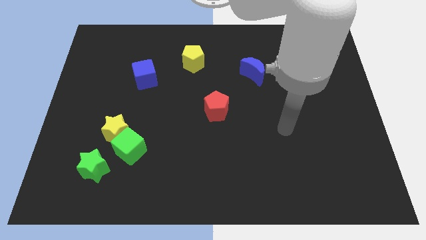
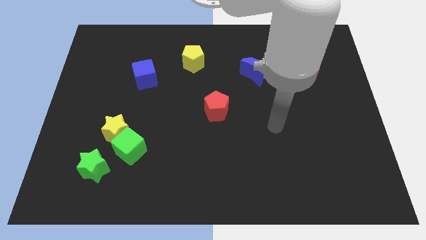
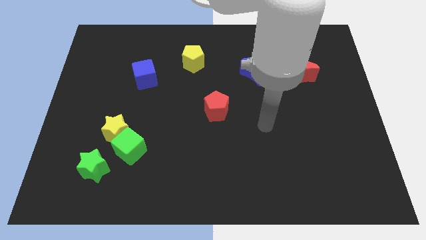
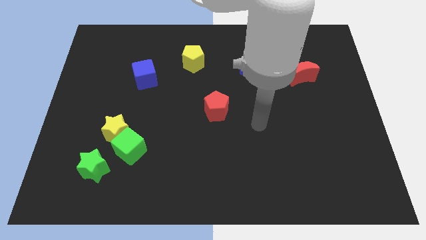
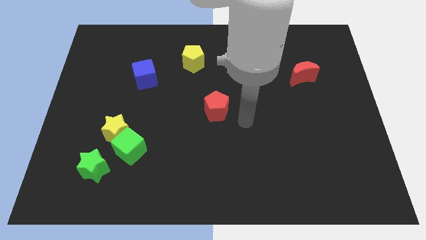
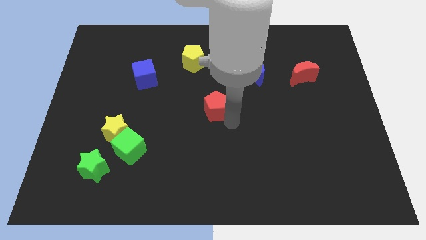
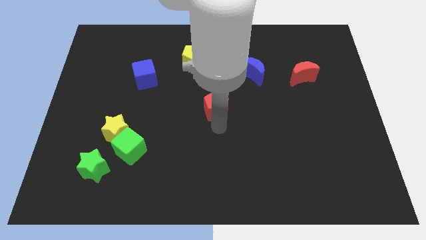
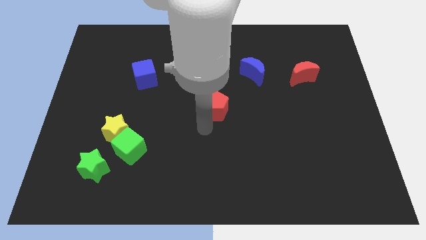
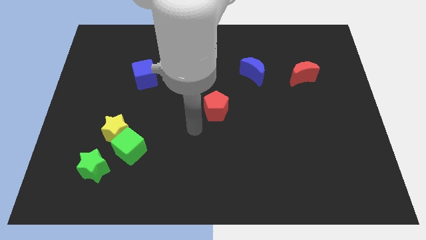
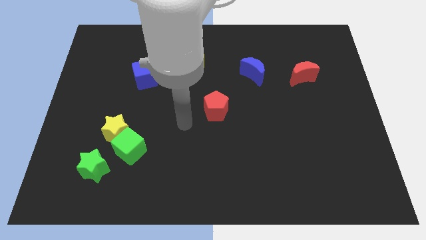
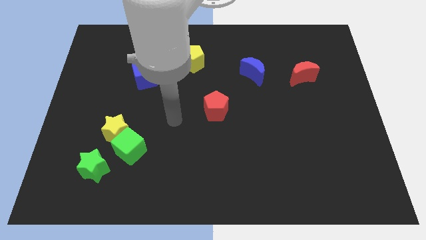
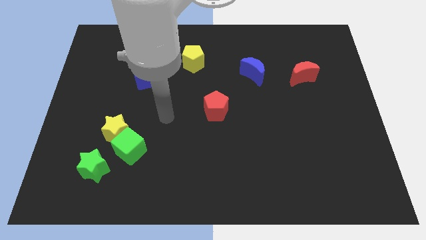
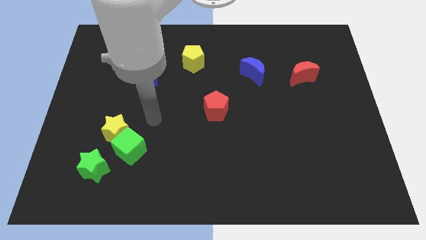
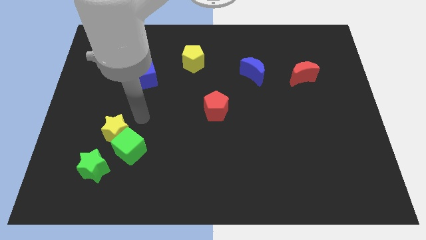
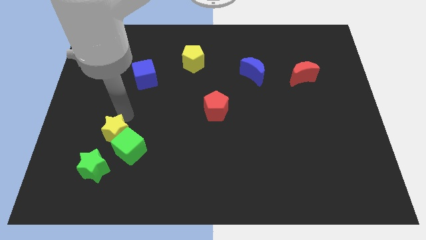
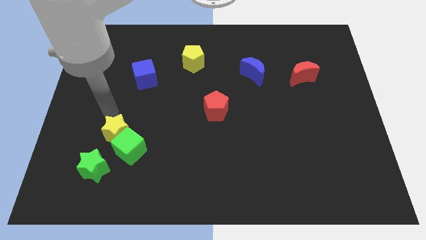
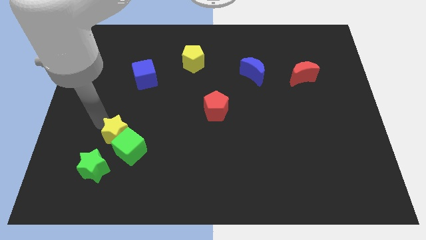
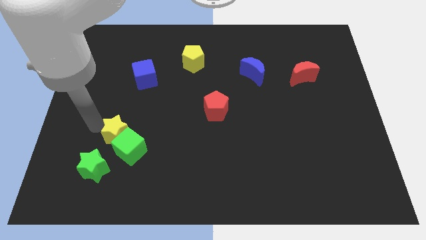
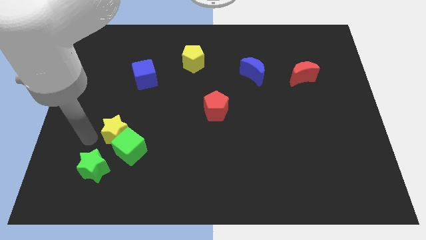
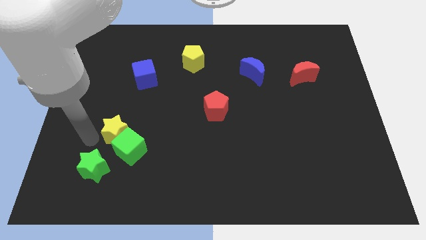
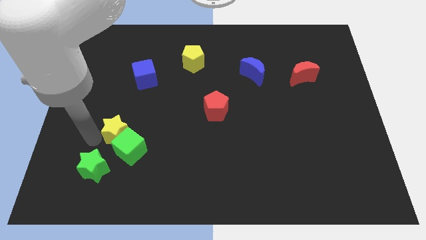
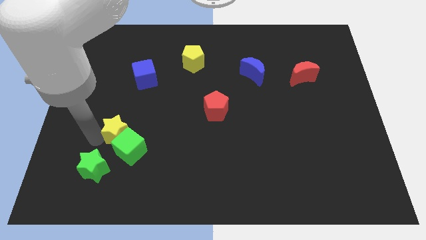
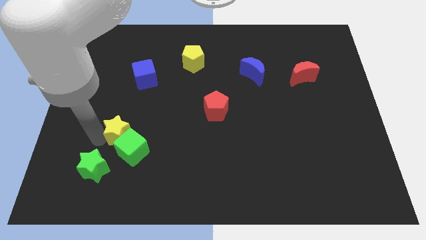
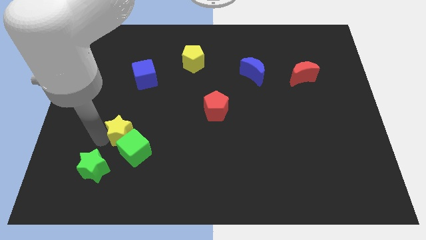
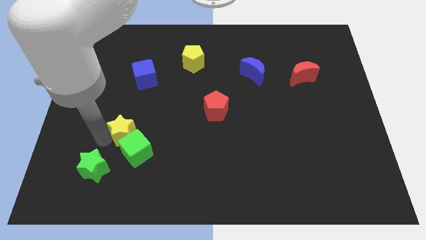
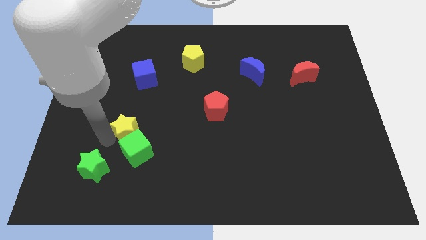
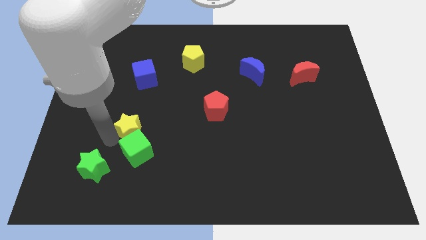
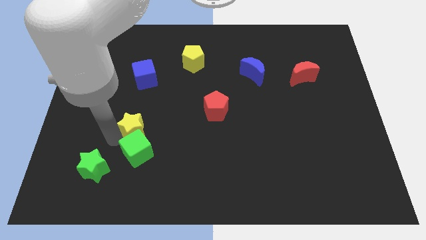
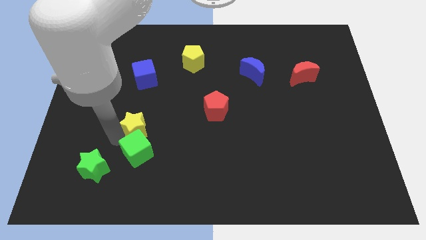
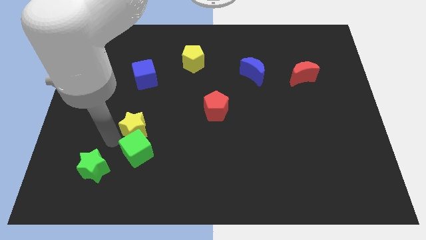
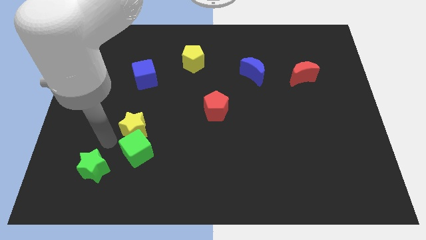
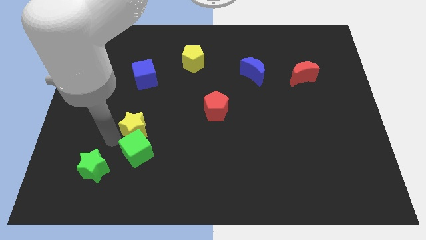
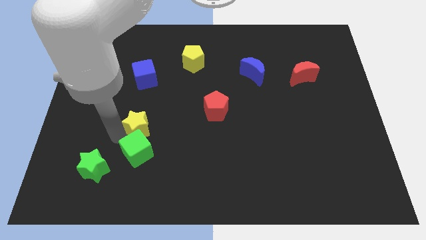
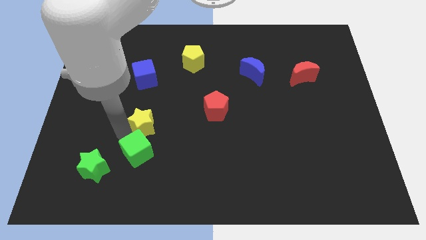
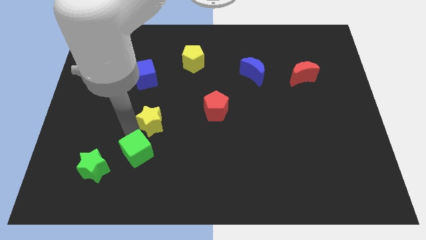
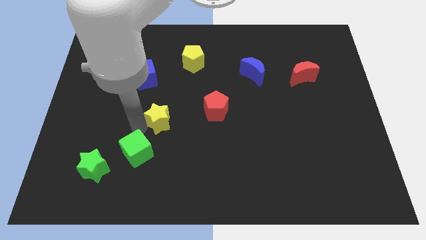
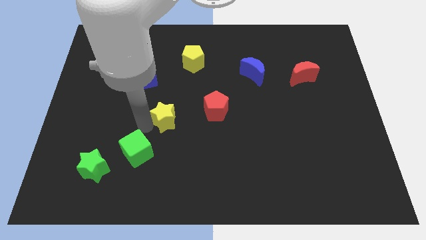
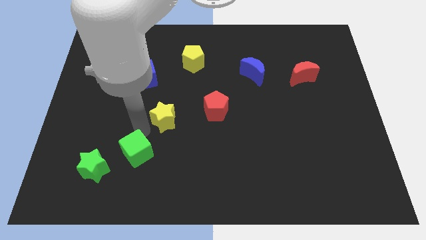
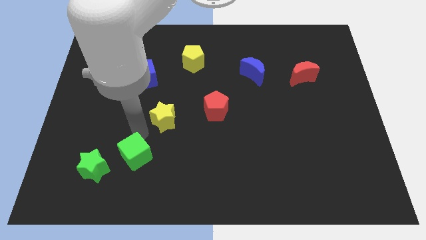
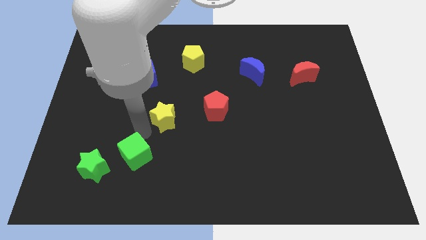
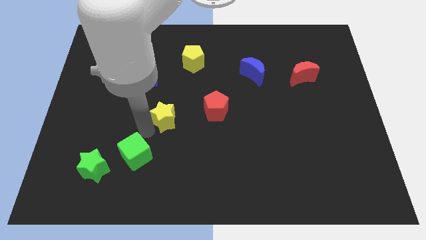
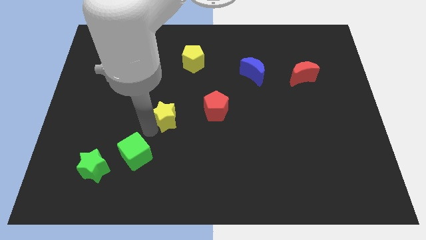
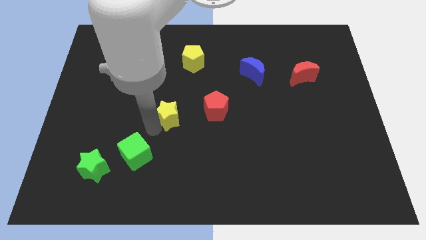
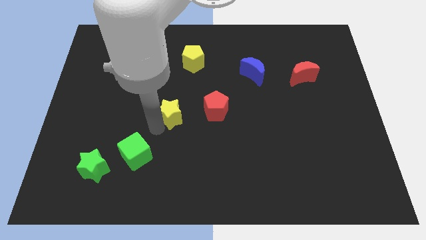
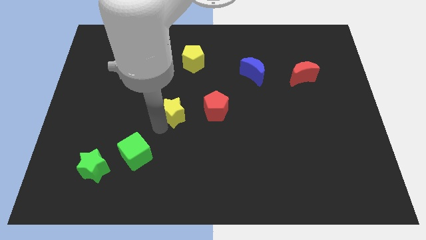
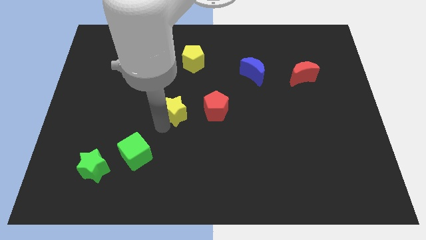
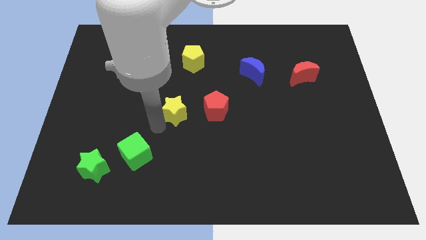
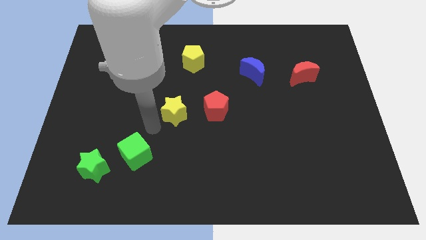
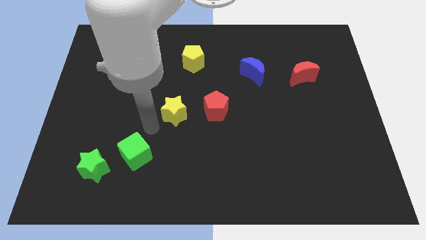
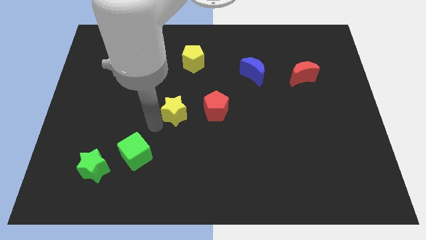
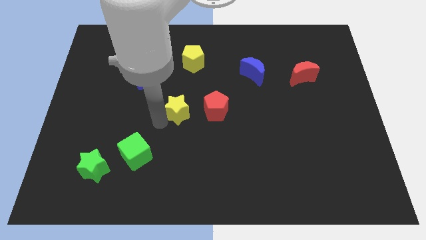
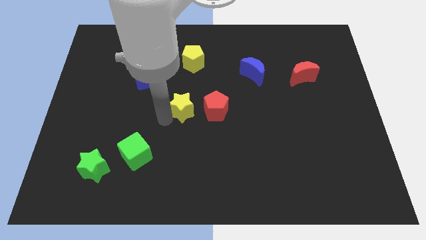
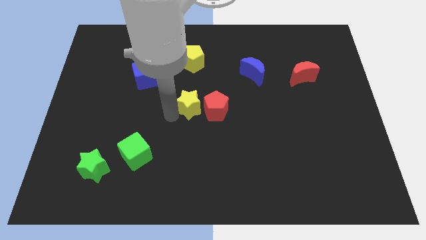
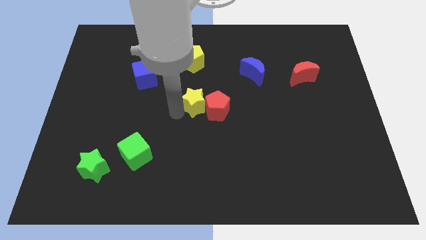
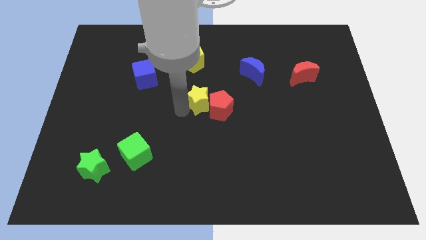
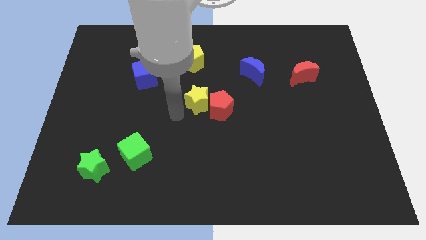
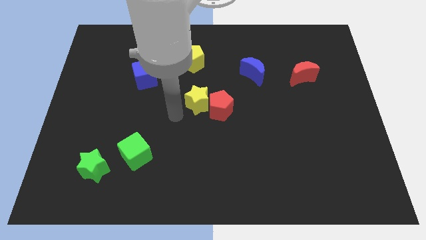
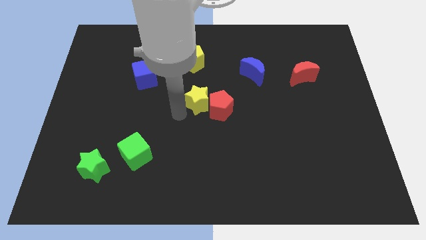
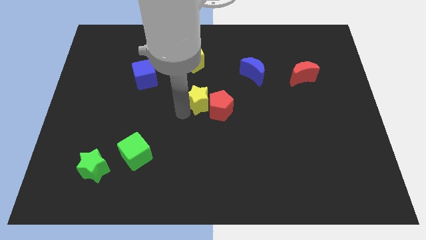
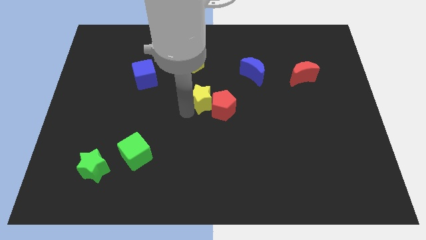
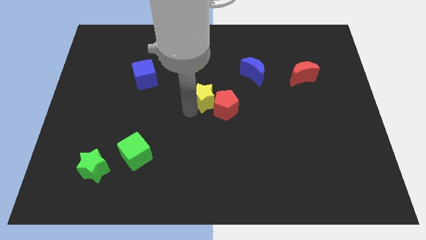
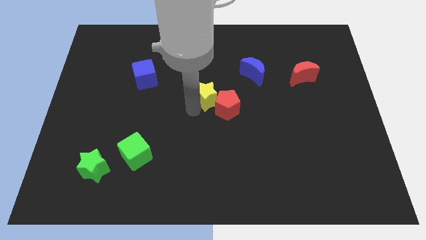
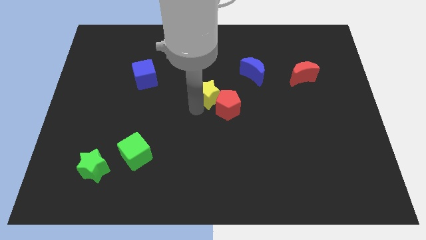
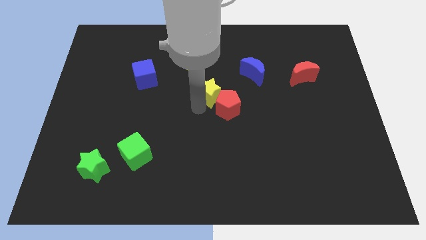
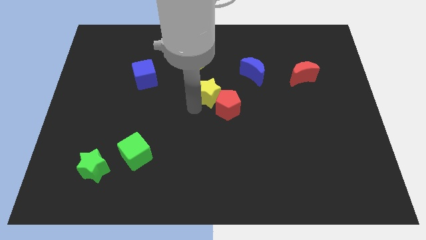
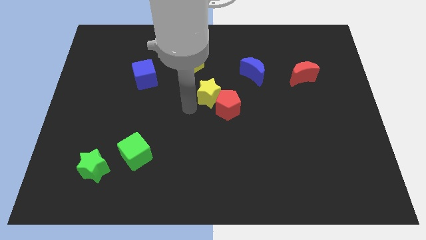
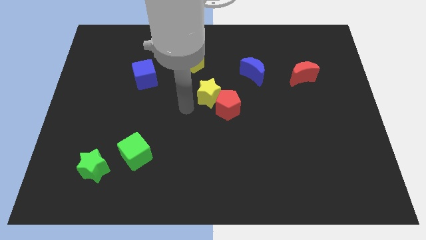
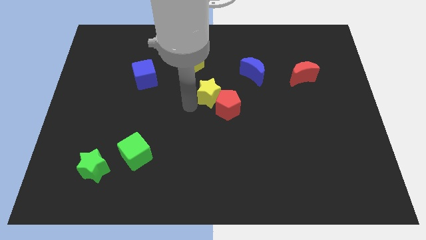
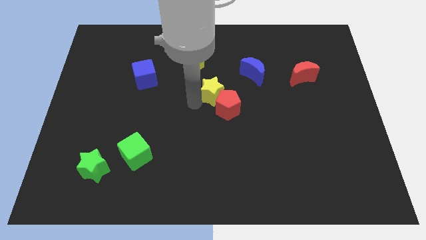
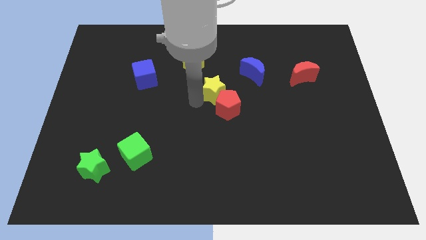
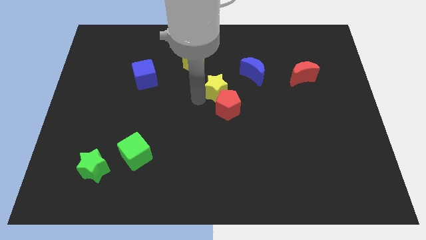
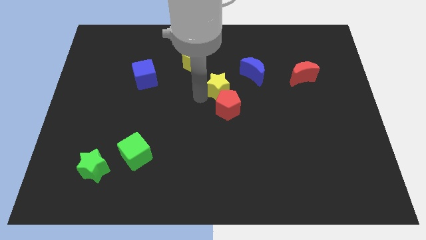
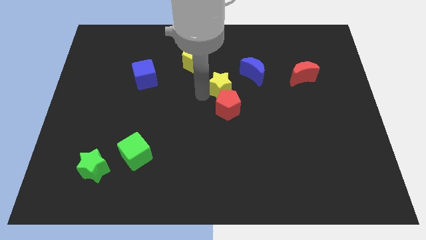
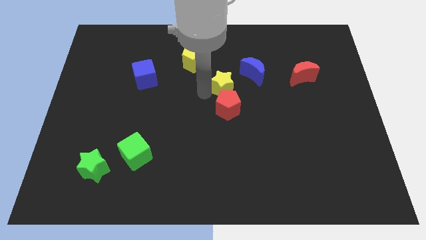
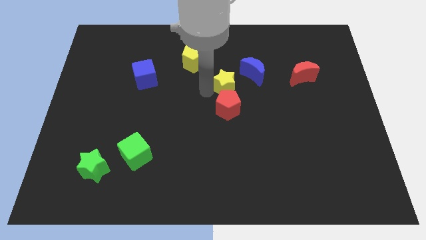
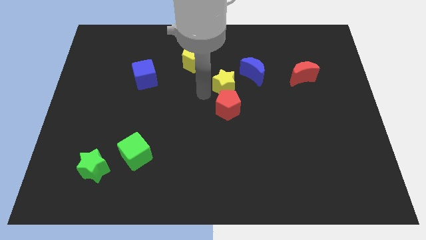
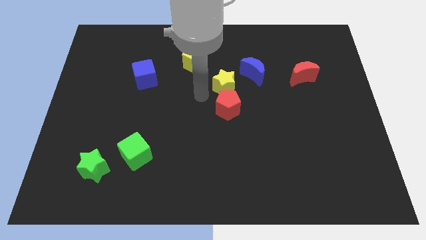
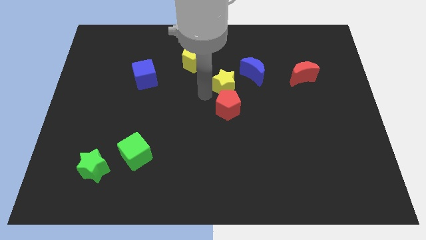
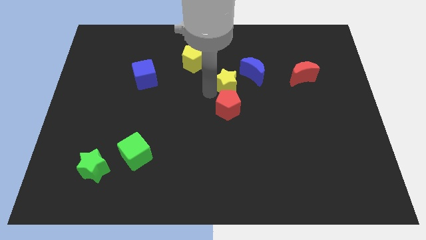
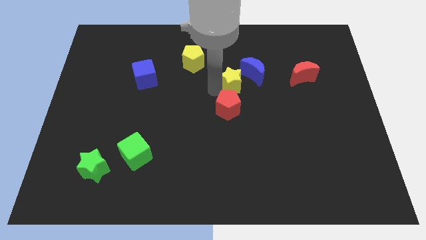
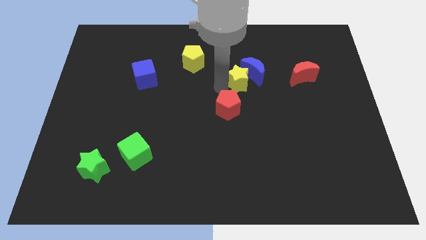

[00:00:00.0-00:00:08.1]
push the yellow star close to the blue moon
